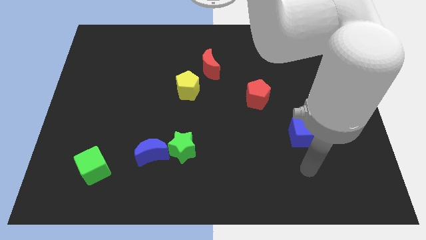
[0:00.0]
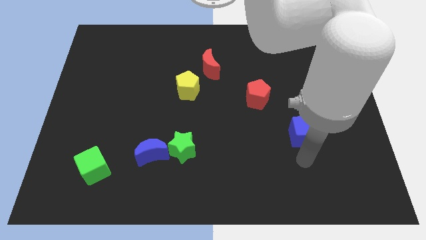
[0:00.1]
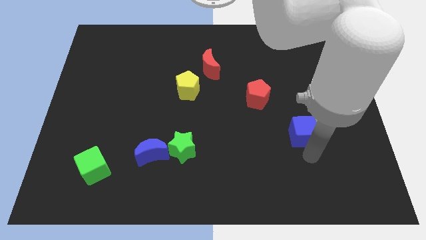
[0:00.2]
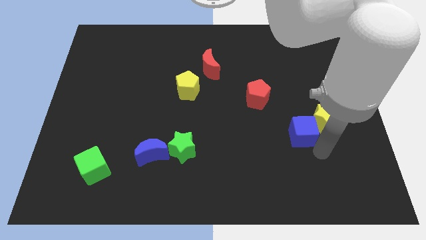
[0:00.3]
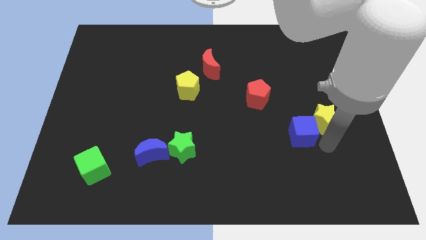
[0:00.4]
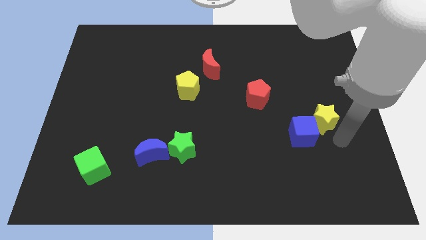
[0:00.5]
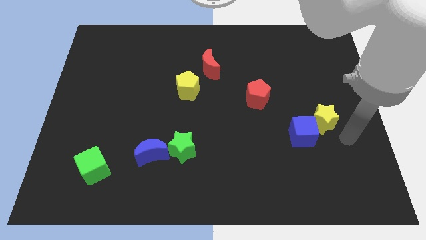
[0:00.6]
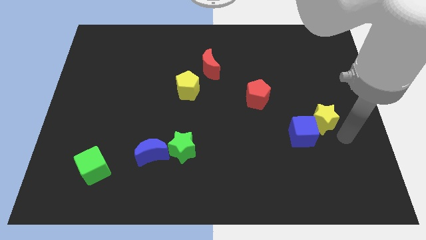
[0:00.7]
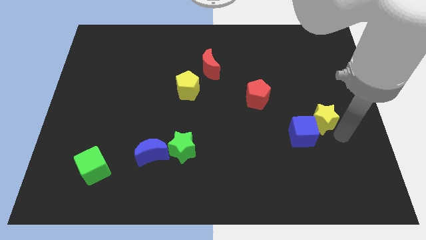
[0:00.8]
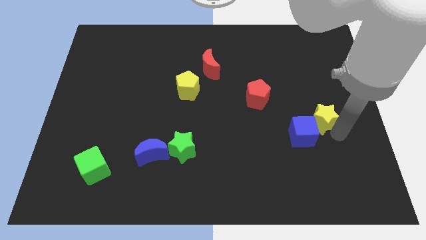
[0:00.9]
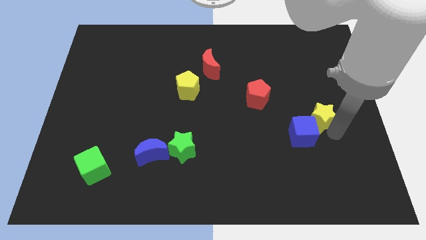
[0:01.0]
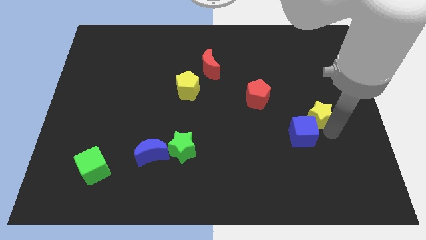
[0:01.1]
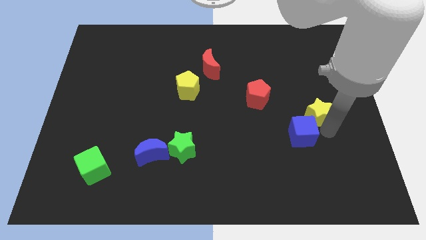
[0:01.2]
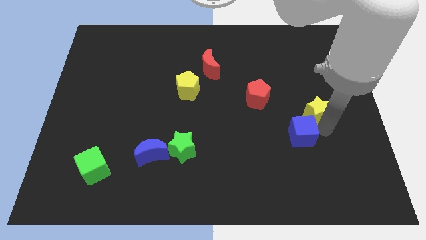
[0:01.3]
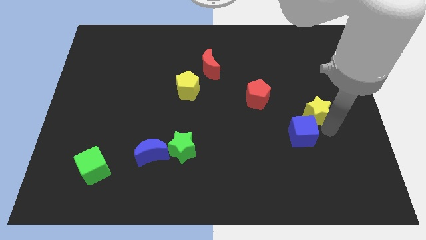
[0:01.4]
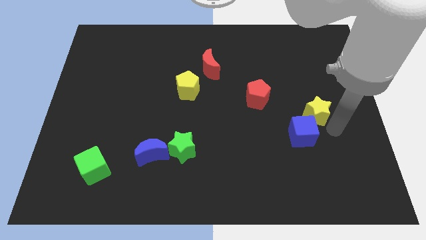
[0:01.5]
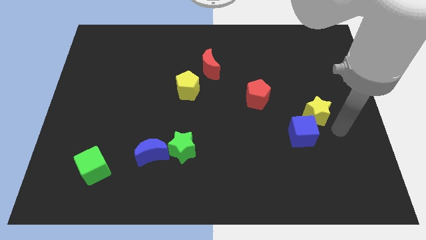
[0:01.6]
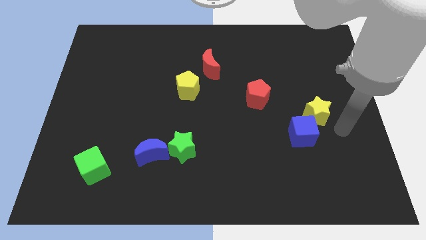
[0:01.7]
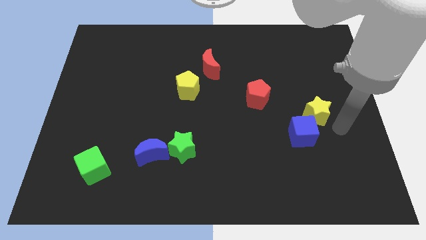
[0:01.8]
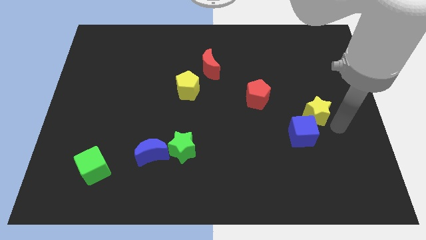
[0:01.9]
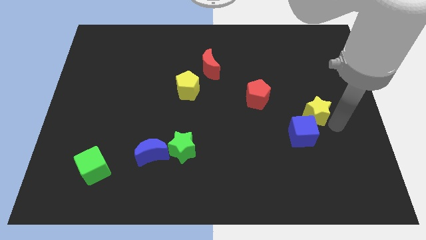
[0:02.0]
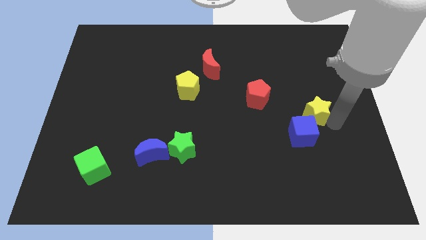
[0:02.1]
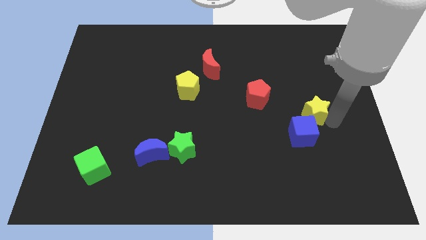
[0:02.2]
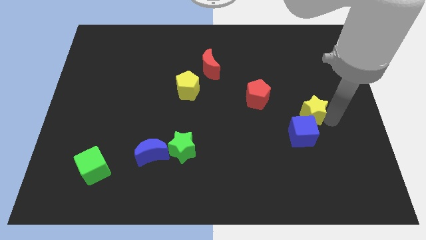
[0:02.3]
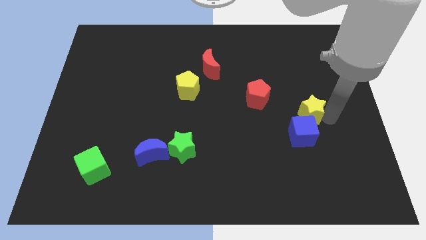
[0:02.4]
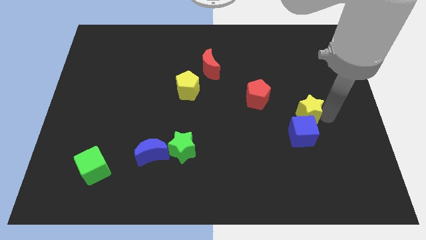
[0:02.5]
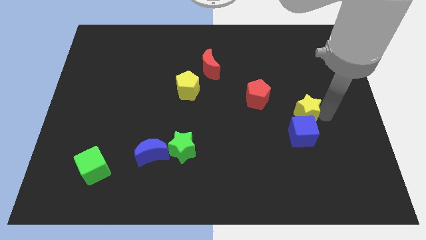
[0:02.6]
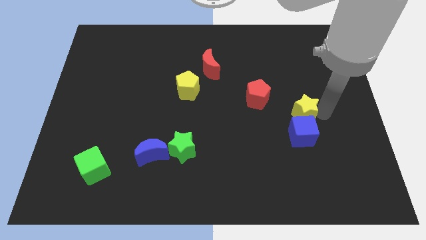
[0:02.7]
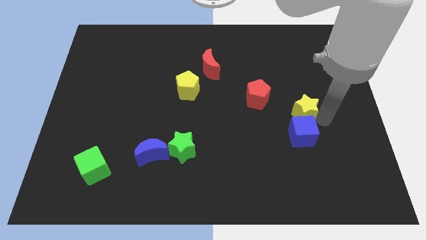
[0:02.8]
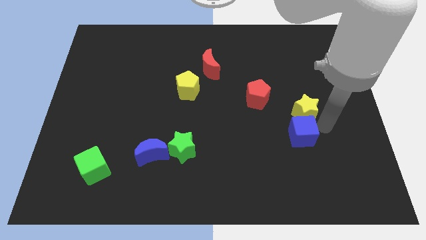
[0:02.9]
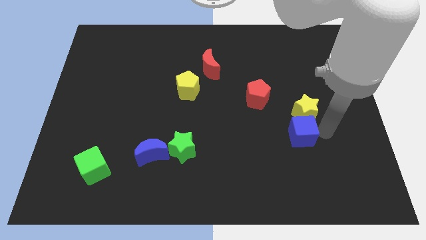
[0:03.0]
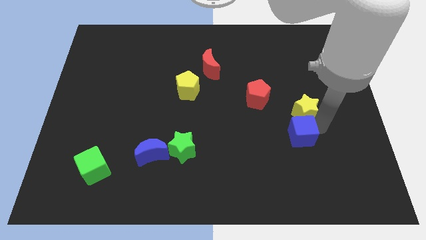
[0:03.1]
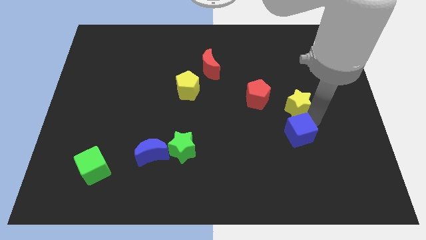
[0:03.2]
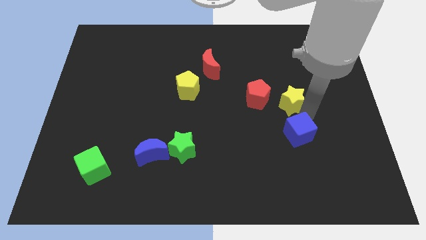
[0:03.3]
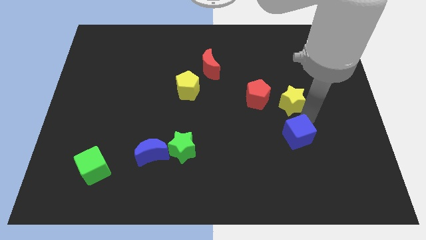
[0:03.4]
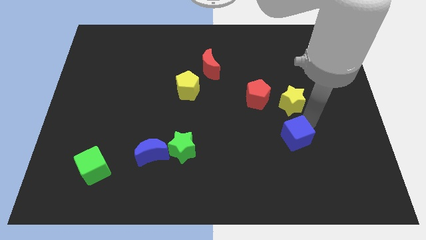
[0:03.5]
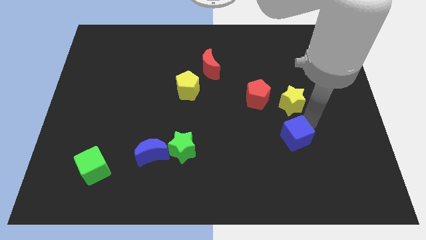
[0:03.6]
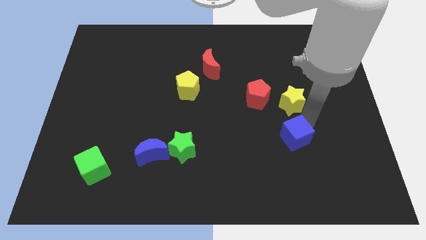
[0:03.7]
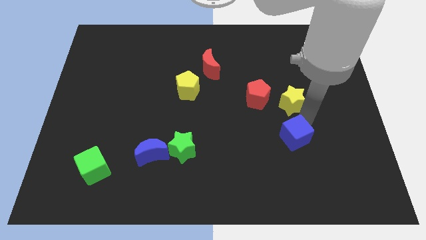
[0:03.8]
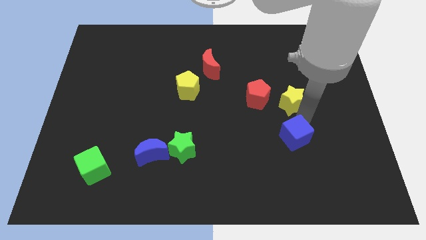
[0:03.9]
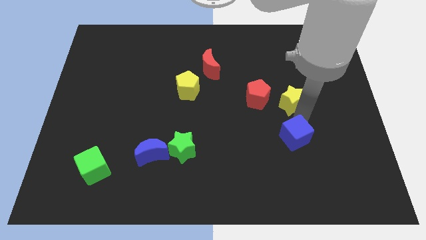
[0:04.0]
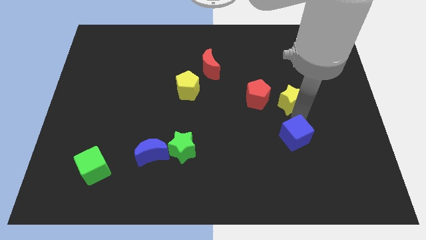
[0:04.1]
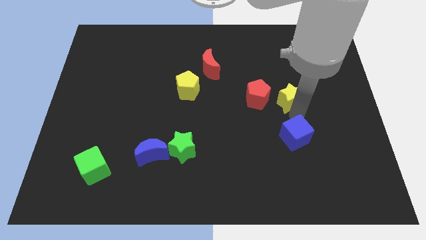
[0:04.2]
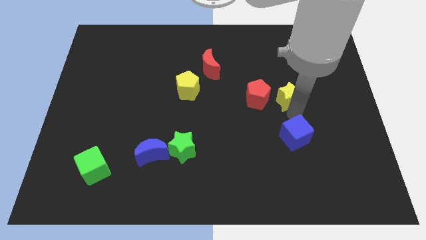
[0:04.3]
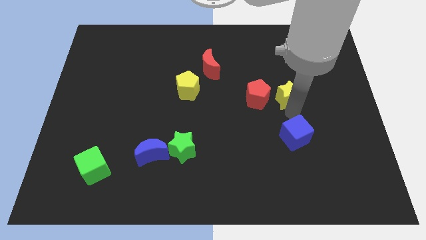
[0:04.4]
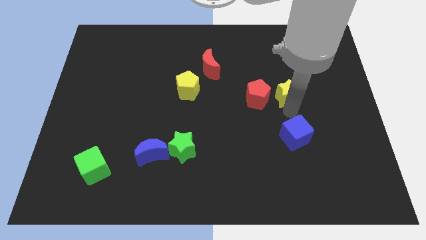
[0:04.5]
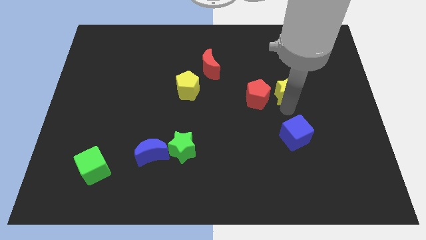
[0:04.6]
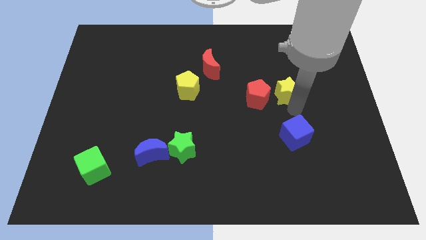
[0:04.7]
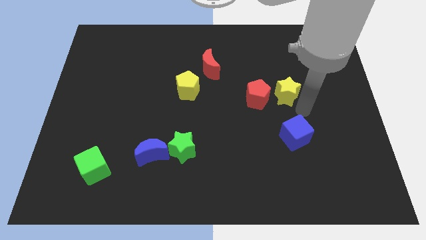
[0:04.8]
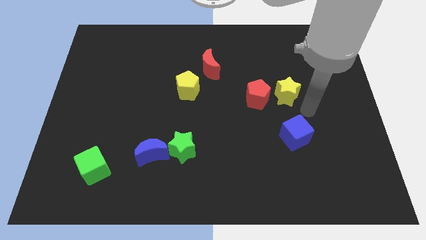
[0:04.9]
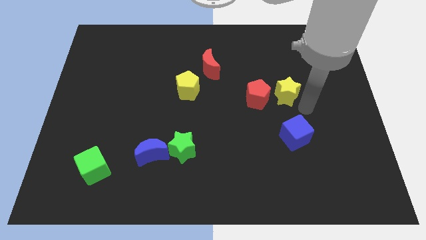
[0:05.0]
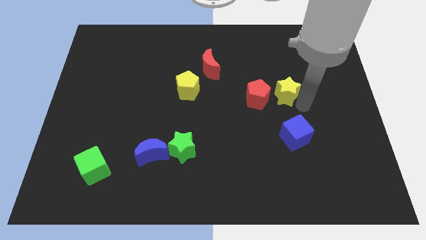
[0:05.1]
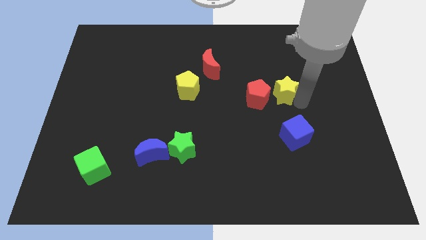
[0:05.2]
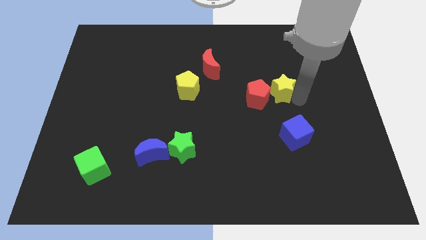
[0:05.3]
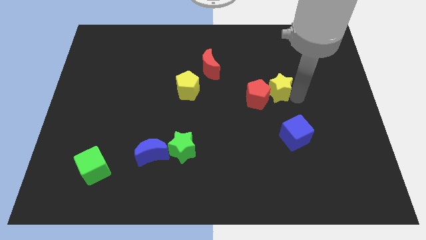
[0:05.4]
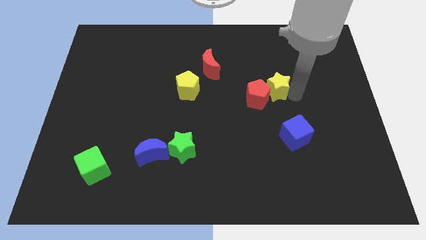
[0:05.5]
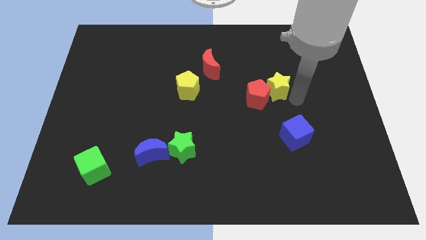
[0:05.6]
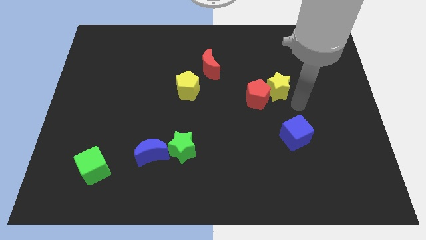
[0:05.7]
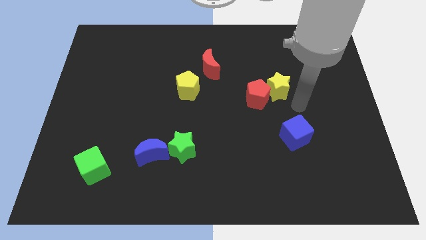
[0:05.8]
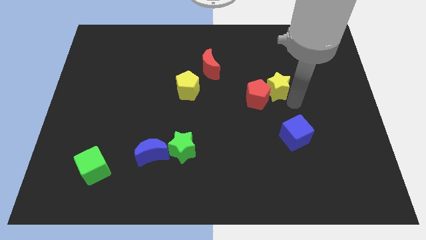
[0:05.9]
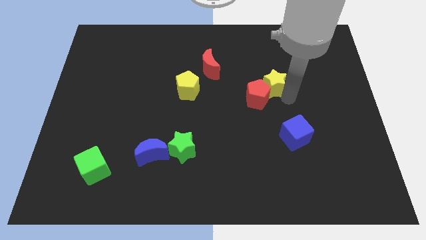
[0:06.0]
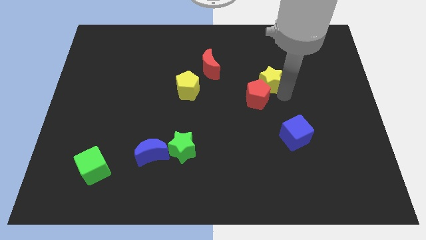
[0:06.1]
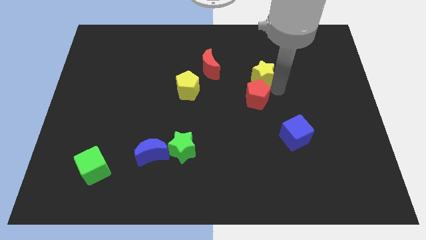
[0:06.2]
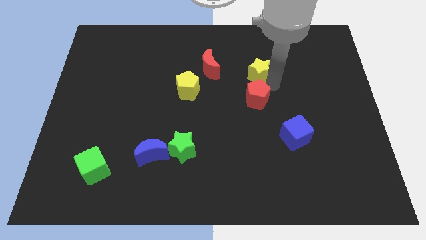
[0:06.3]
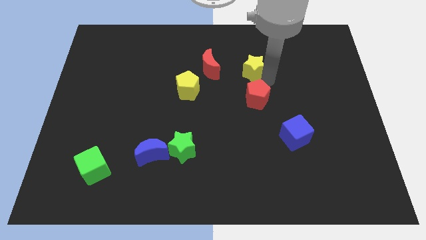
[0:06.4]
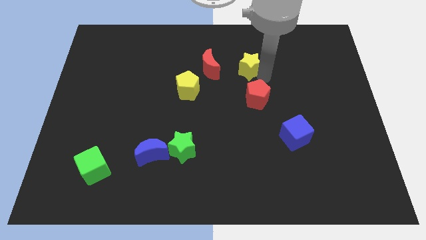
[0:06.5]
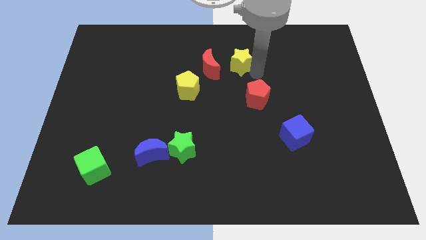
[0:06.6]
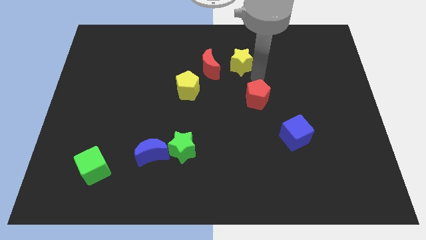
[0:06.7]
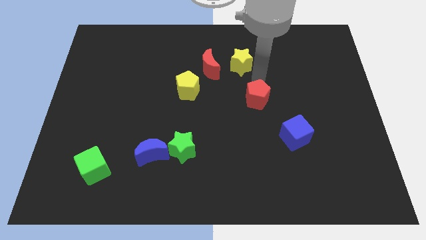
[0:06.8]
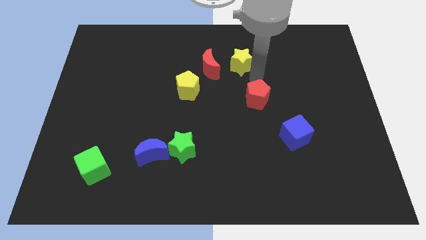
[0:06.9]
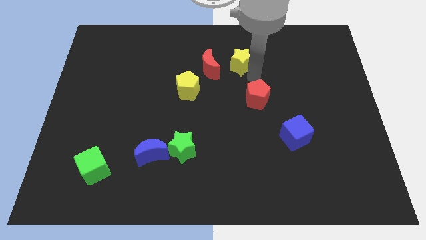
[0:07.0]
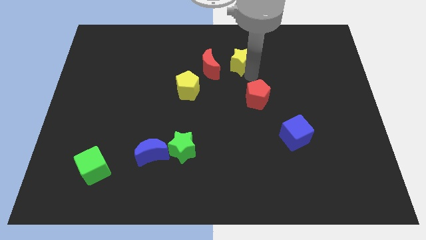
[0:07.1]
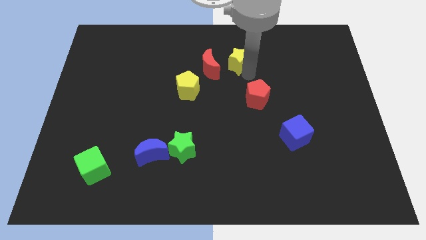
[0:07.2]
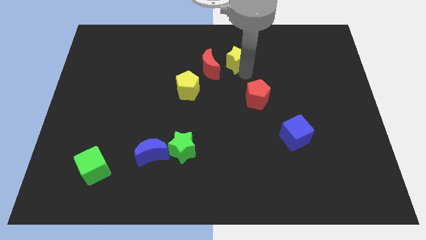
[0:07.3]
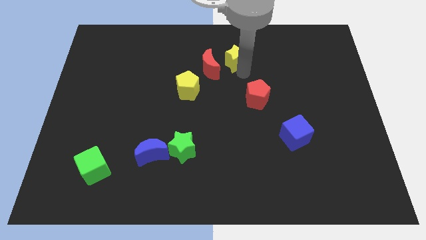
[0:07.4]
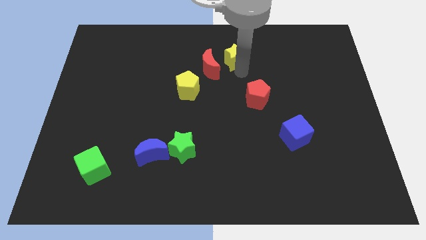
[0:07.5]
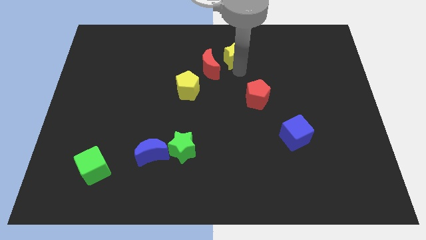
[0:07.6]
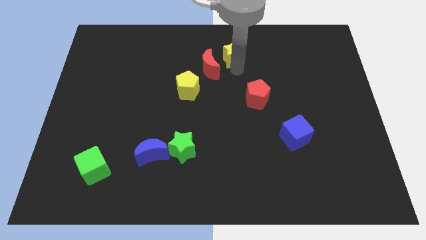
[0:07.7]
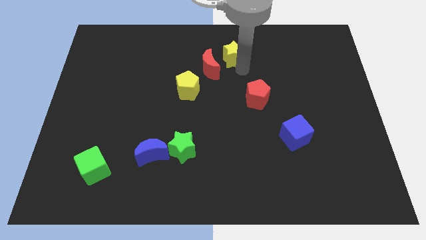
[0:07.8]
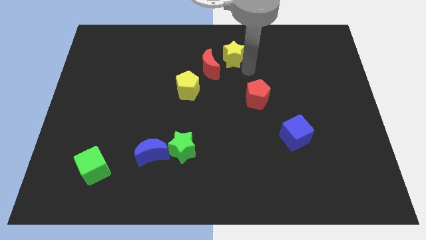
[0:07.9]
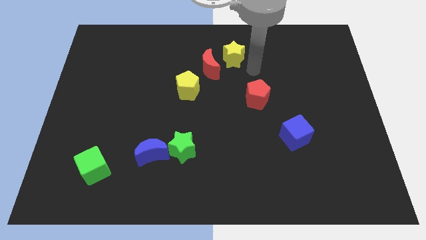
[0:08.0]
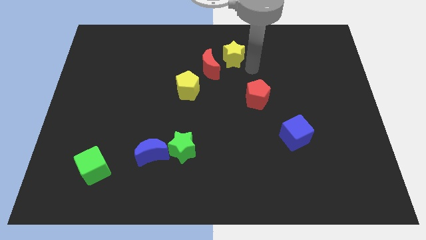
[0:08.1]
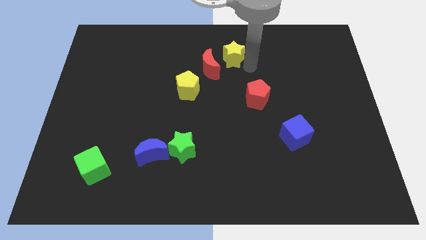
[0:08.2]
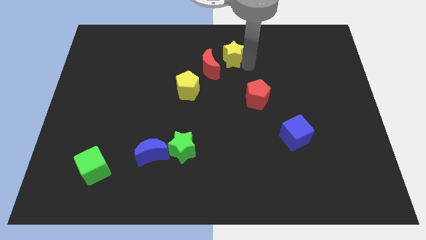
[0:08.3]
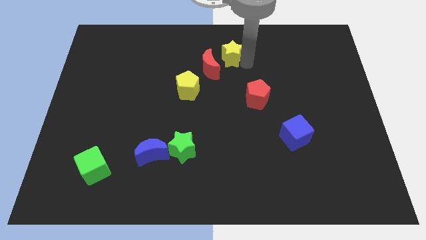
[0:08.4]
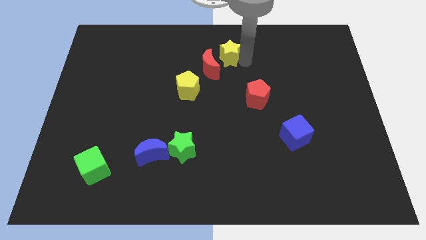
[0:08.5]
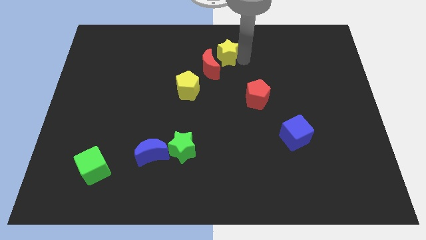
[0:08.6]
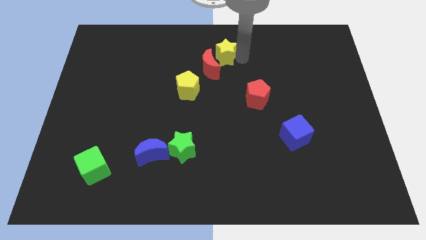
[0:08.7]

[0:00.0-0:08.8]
move the yellow star to the towards your base
